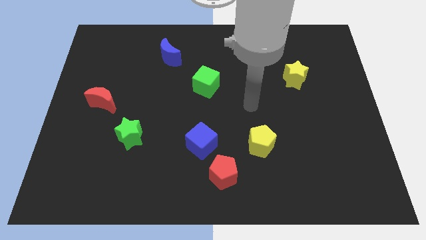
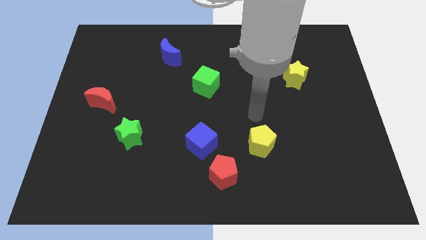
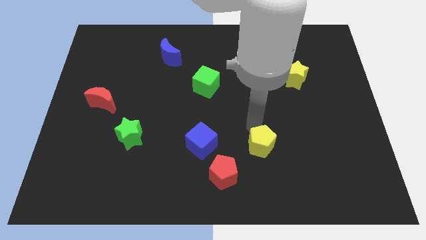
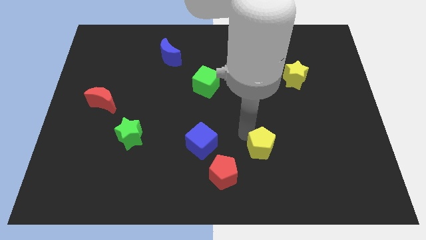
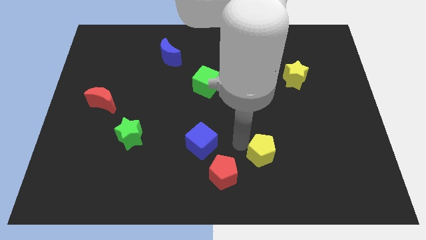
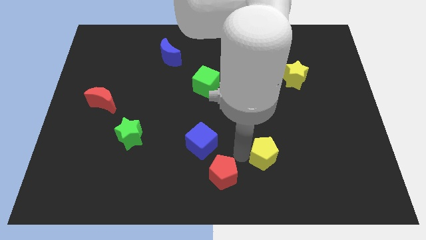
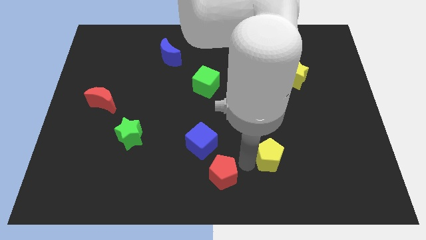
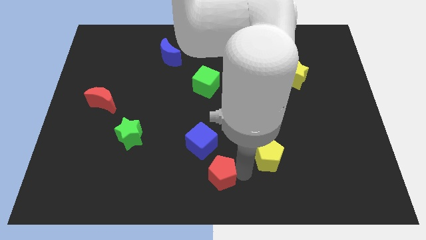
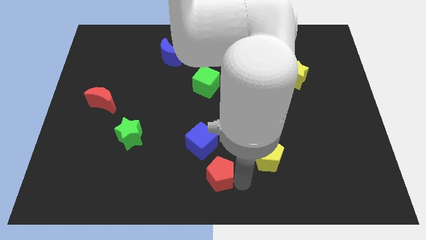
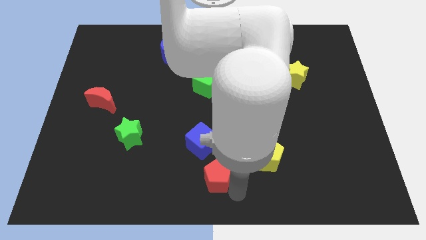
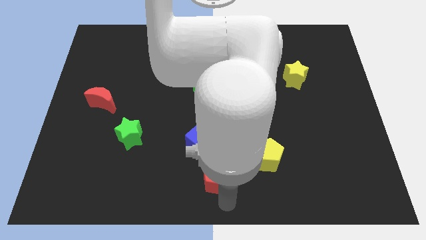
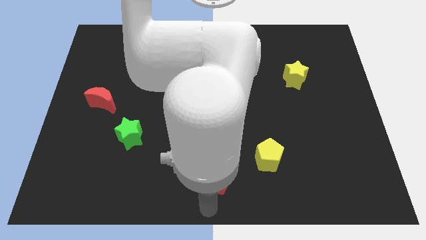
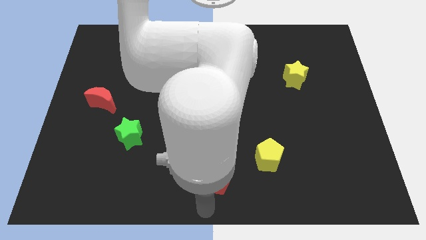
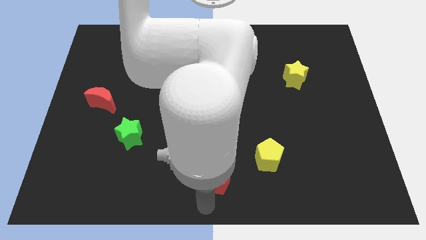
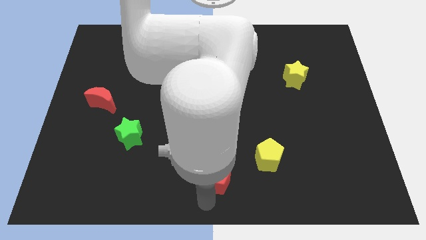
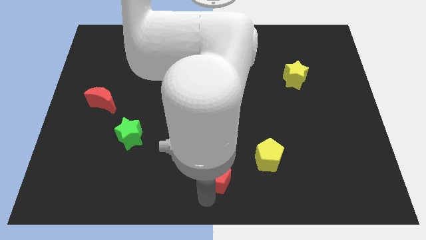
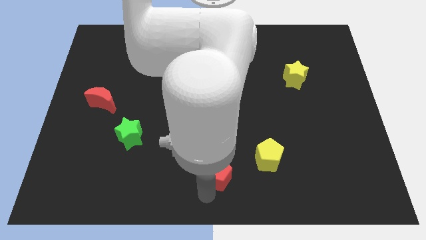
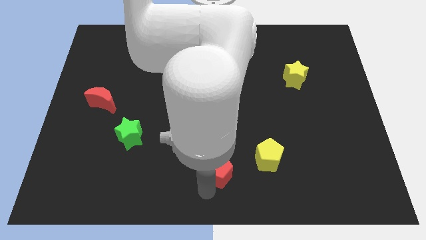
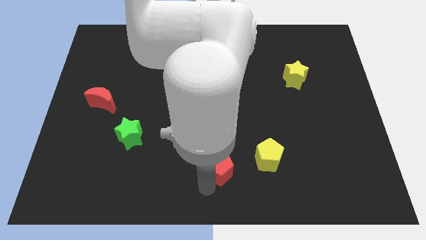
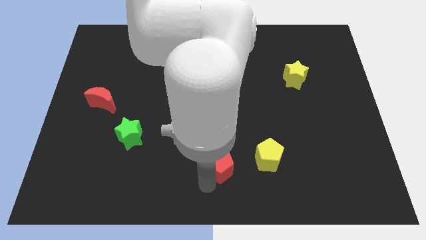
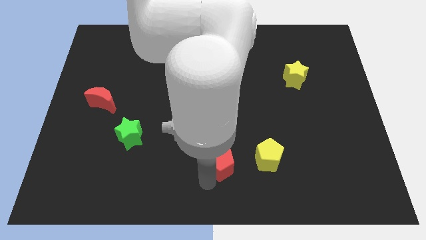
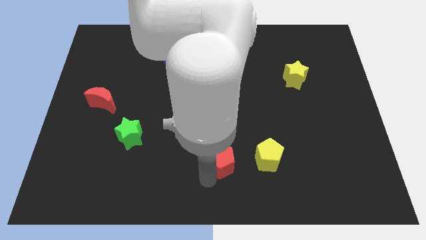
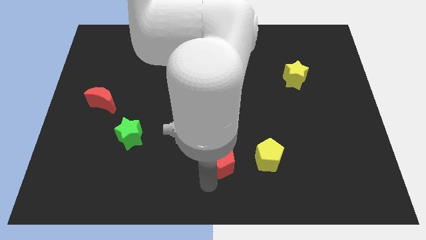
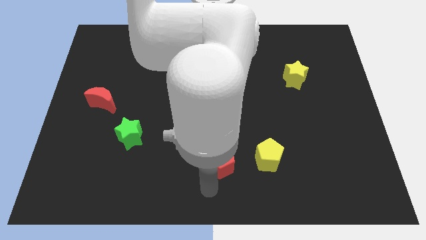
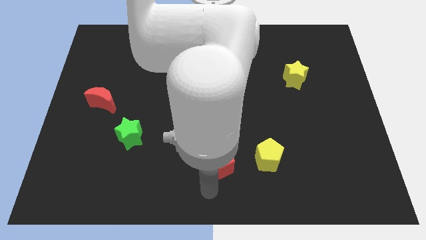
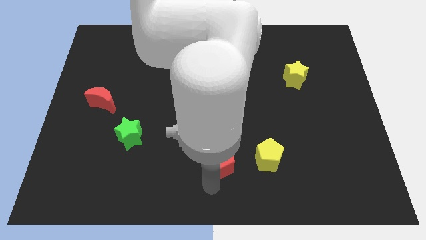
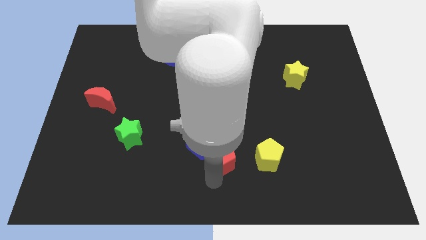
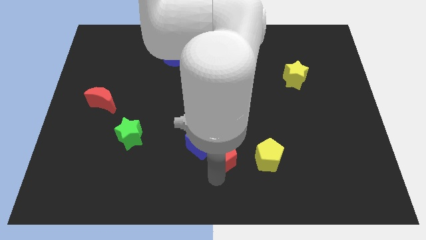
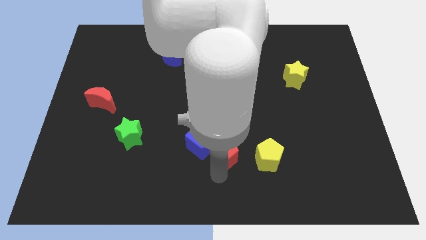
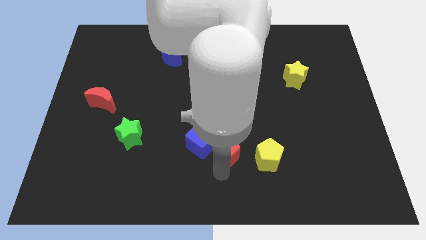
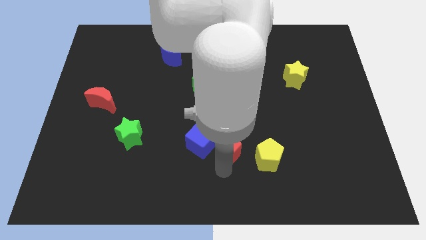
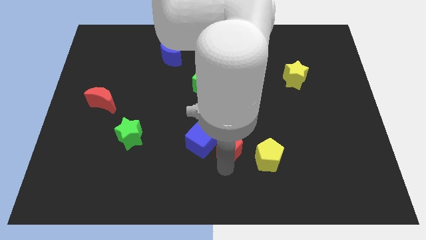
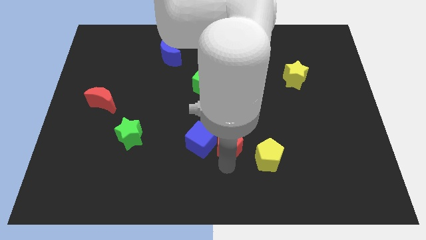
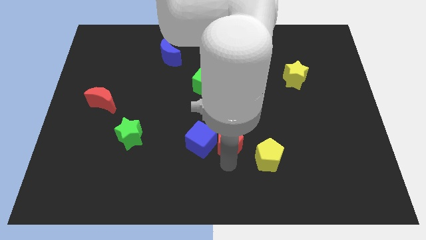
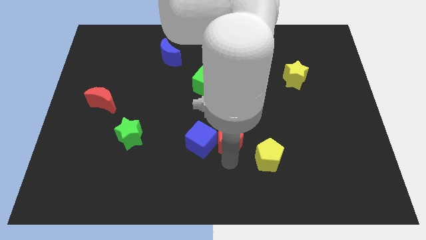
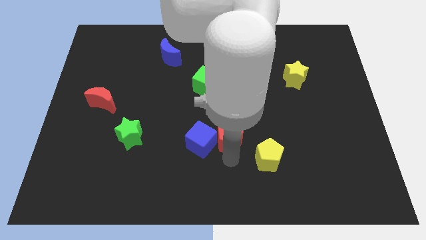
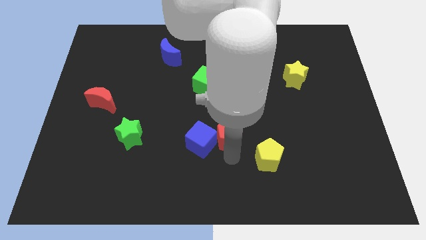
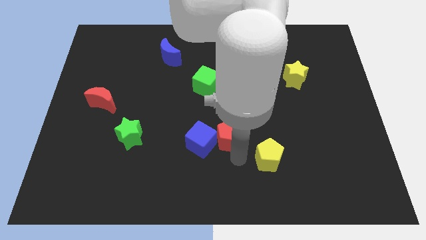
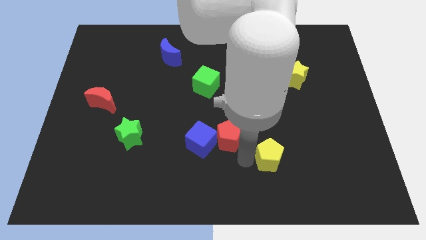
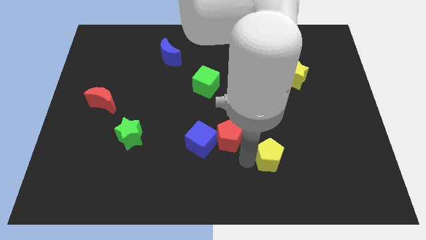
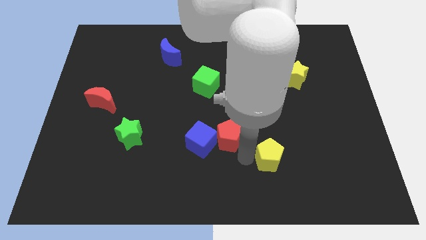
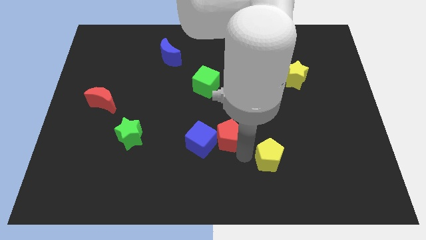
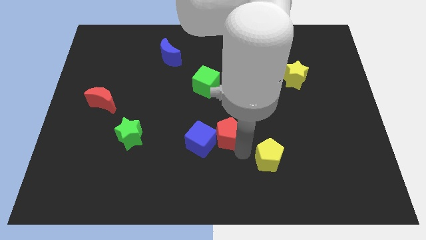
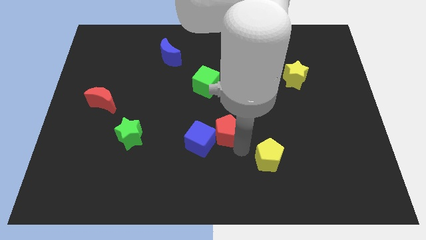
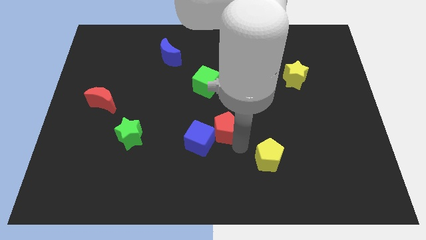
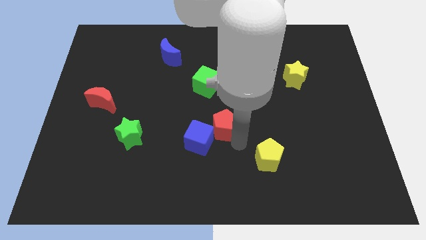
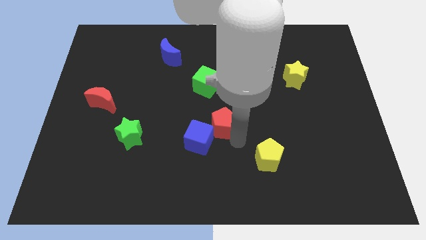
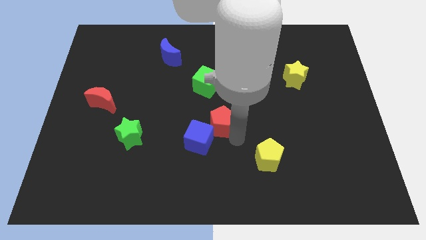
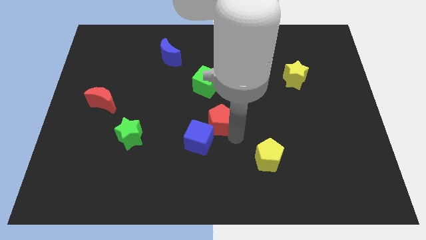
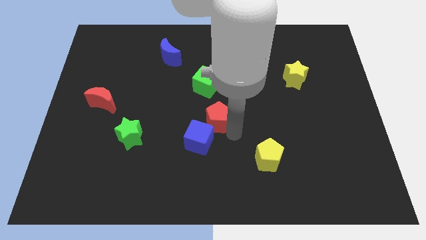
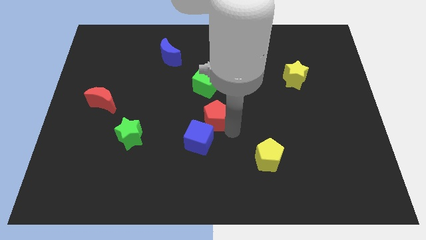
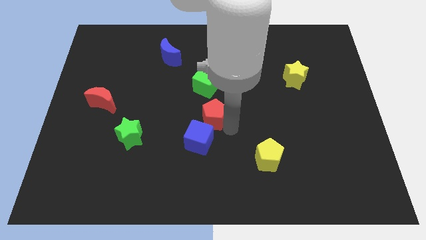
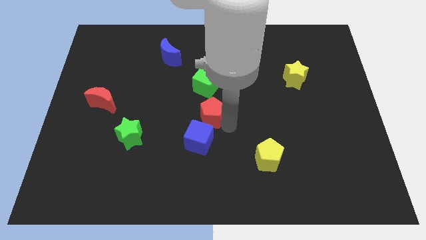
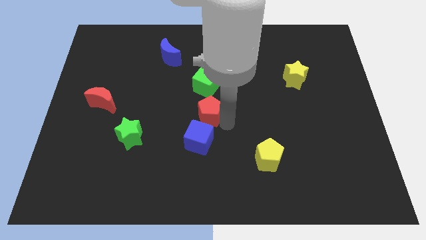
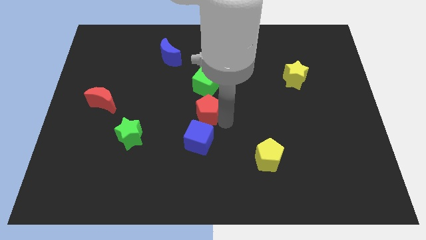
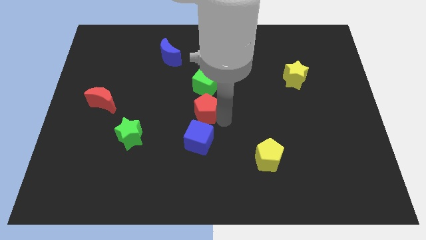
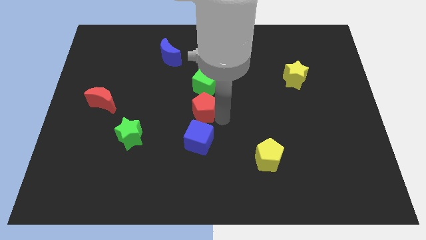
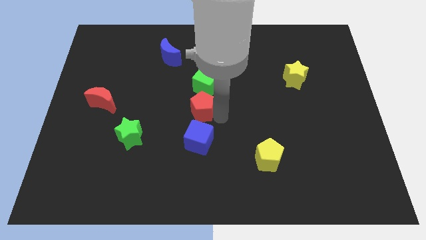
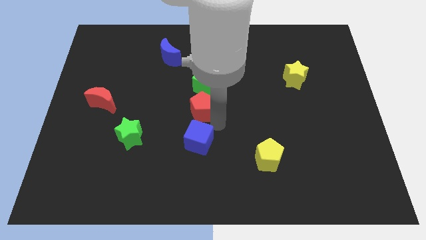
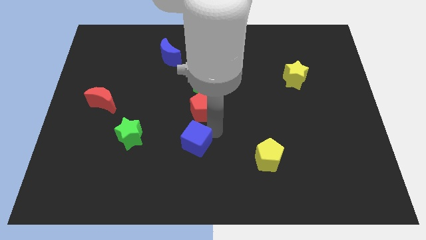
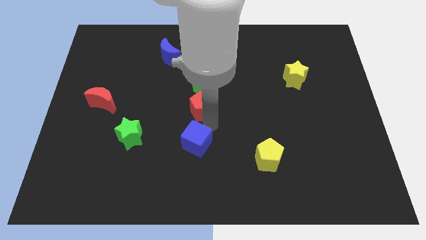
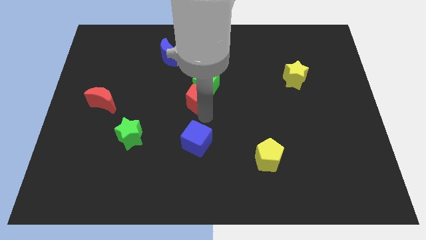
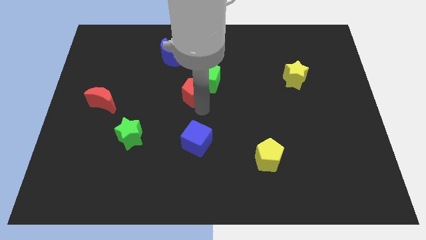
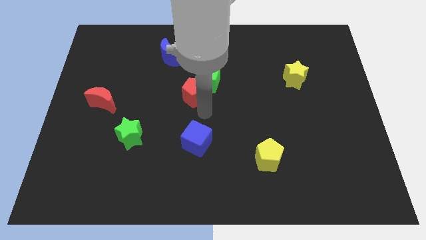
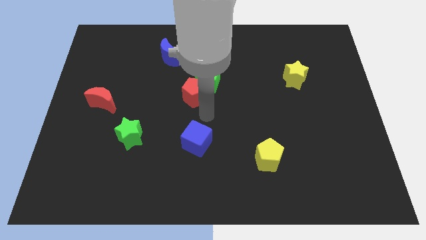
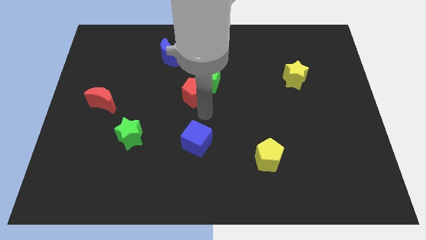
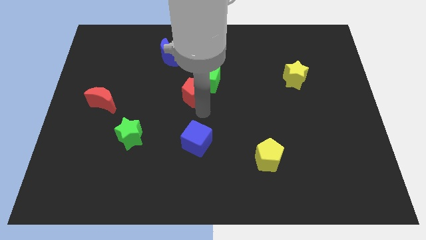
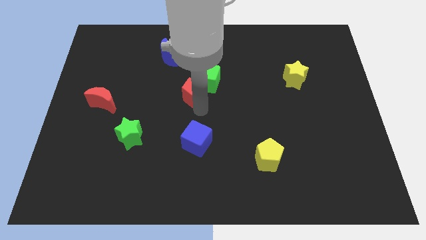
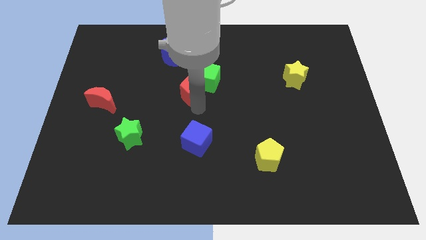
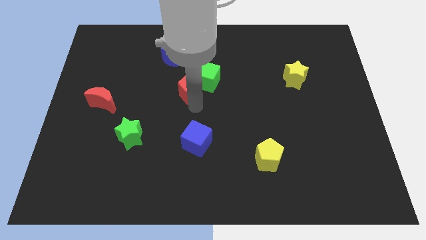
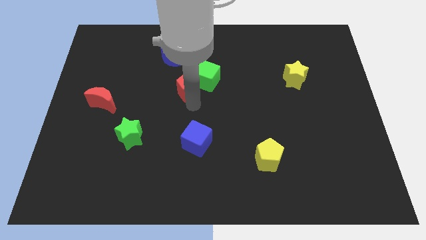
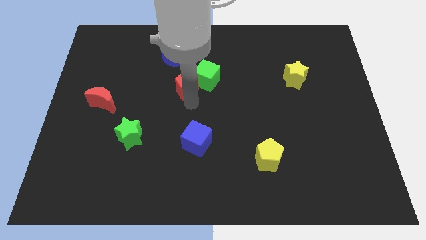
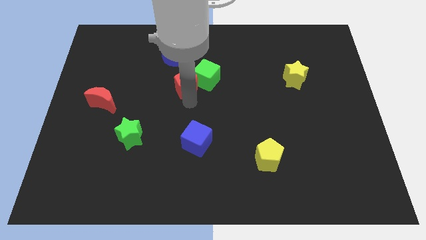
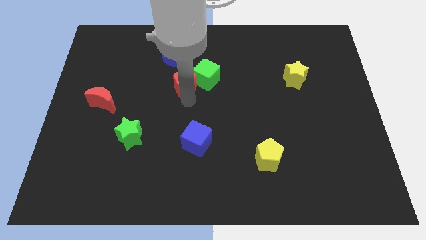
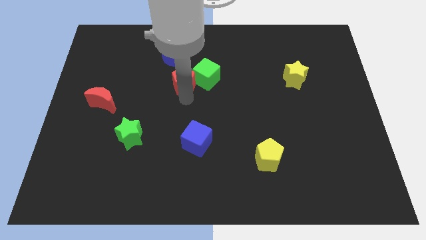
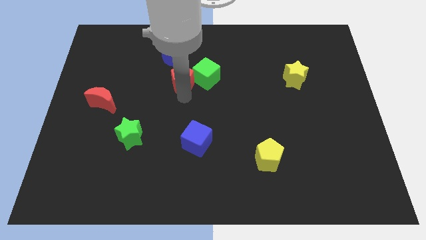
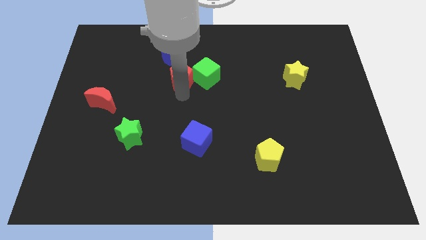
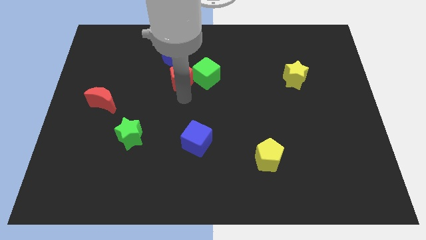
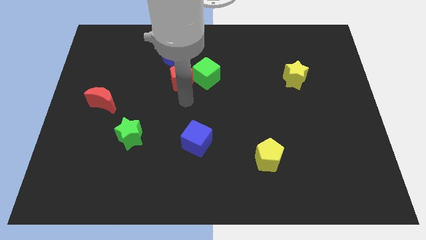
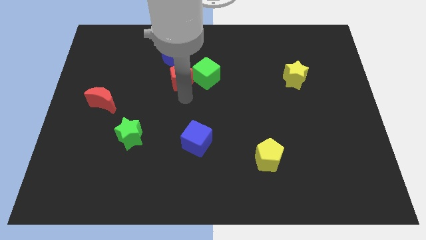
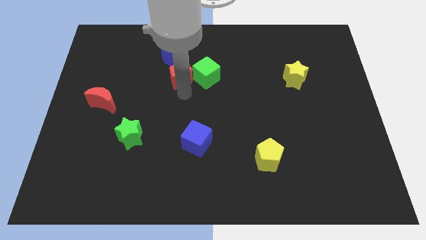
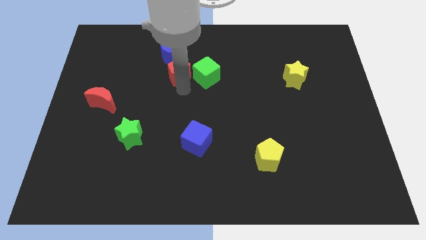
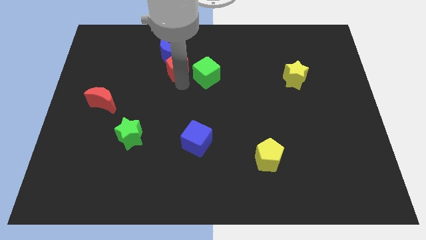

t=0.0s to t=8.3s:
push the red pentagon towards the blue moon
